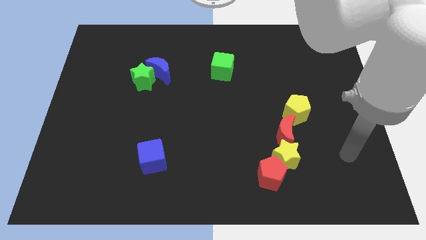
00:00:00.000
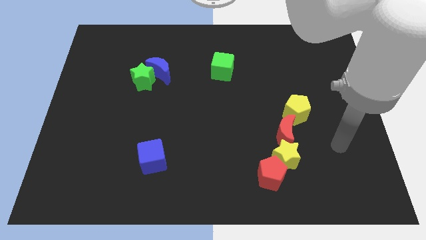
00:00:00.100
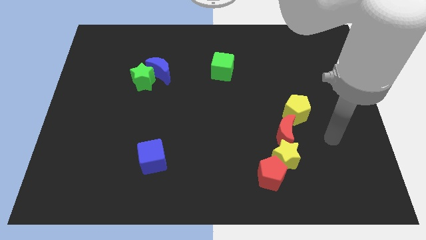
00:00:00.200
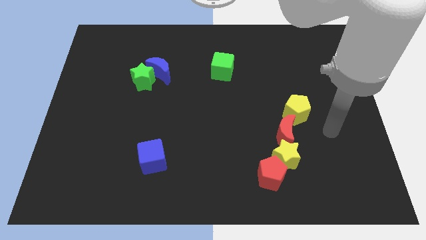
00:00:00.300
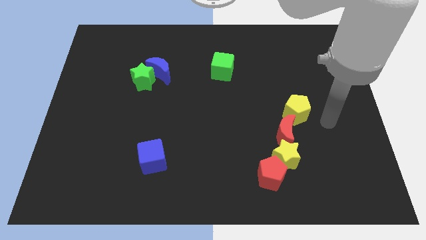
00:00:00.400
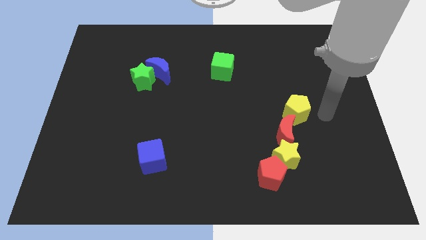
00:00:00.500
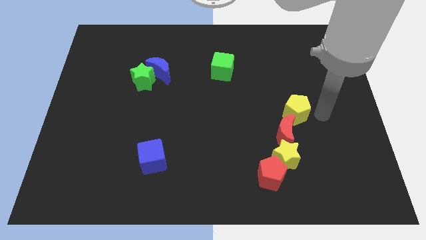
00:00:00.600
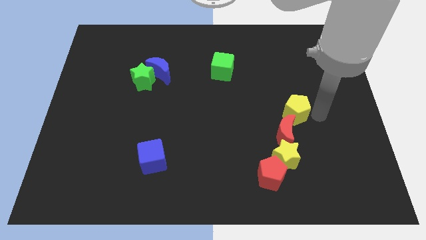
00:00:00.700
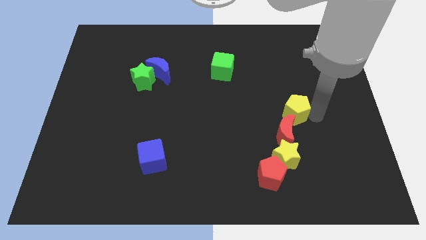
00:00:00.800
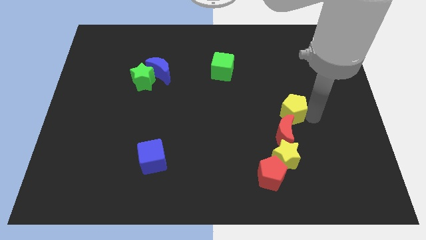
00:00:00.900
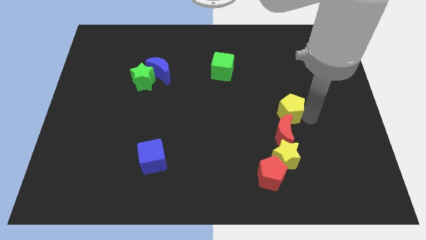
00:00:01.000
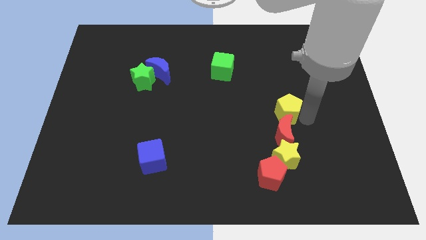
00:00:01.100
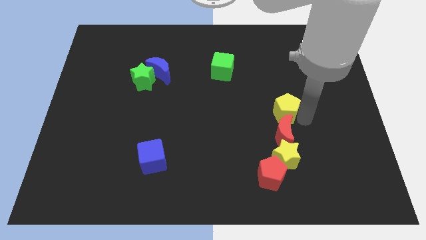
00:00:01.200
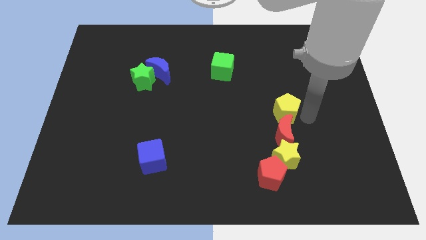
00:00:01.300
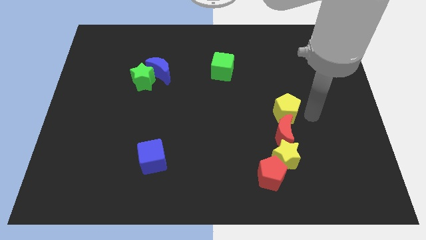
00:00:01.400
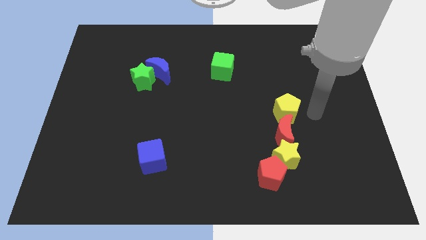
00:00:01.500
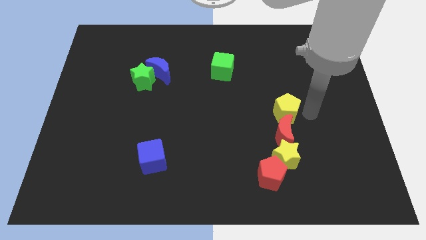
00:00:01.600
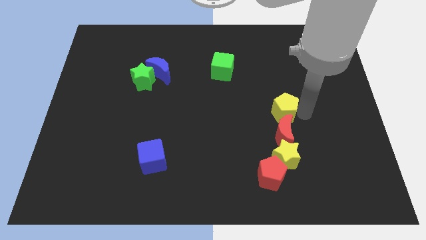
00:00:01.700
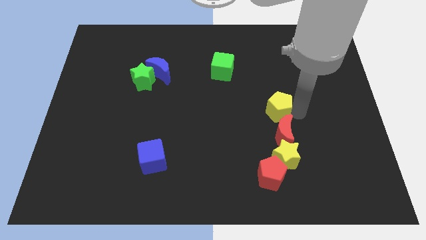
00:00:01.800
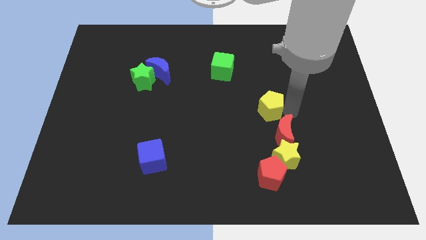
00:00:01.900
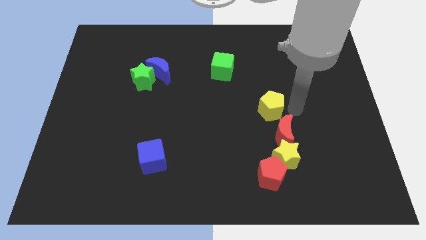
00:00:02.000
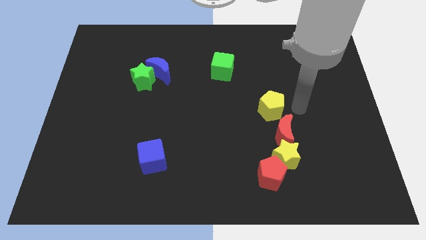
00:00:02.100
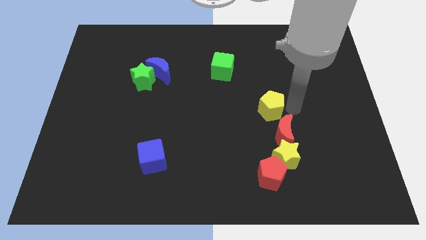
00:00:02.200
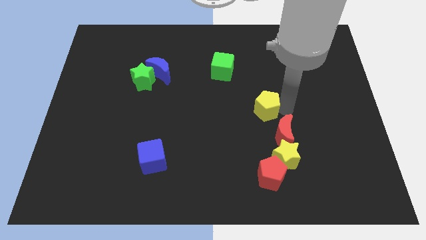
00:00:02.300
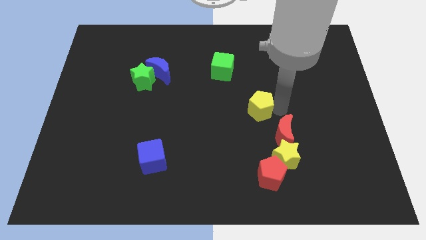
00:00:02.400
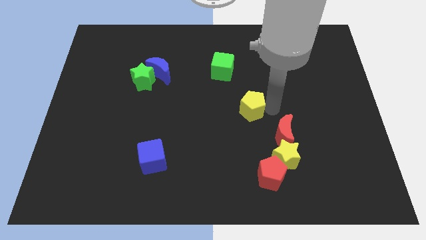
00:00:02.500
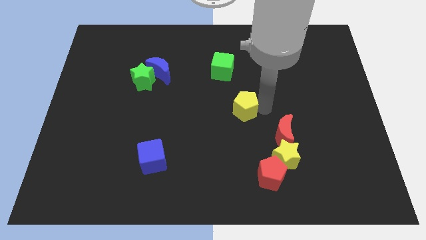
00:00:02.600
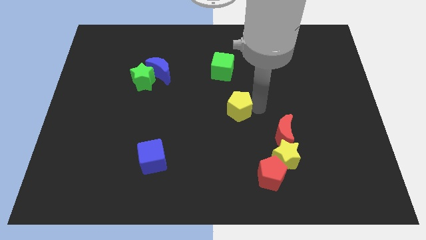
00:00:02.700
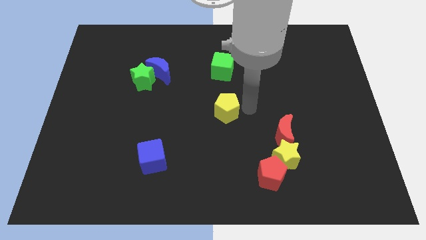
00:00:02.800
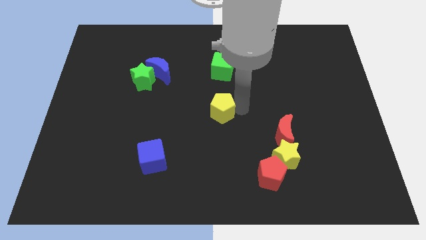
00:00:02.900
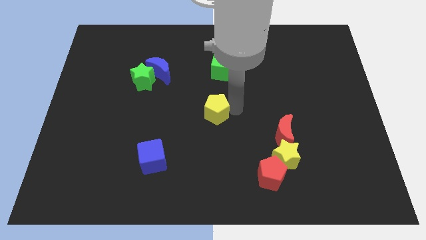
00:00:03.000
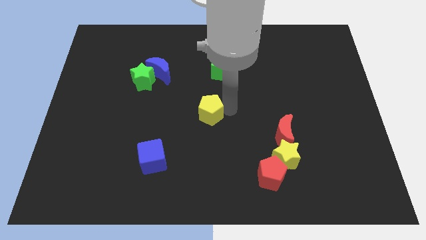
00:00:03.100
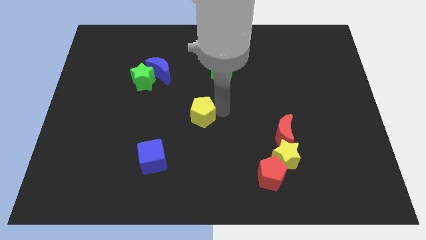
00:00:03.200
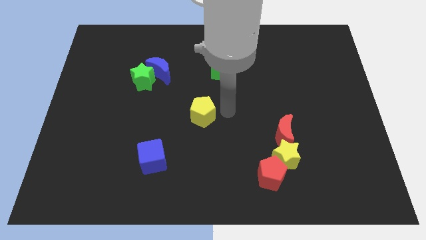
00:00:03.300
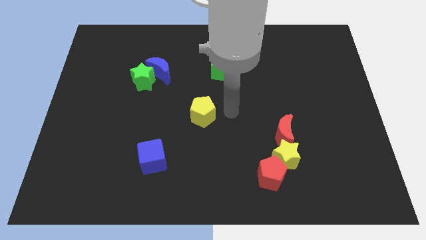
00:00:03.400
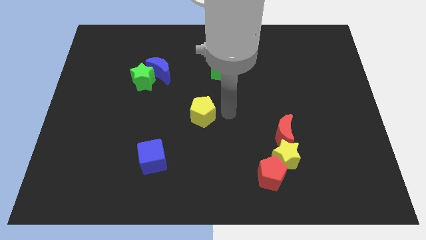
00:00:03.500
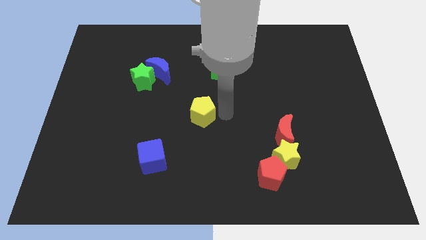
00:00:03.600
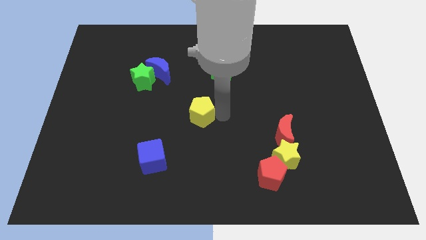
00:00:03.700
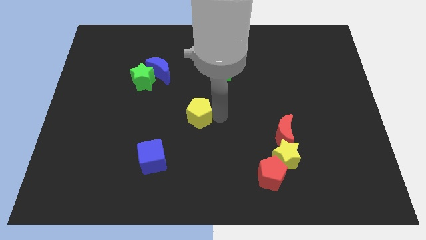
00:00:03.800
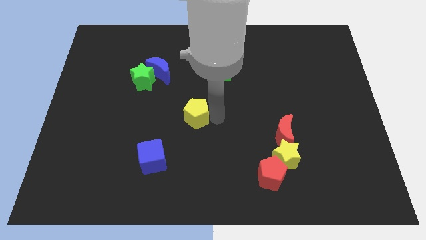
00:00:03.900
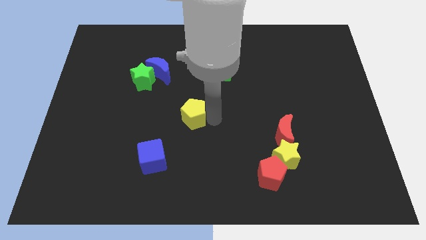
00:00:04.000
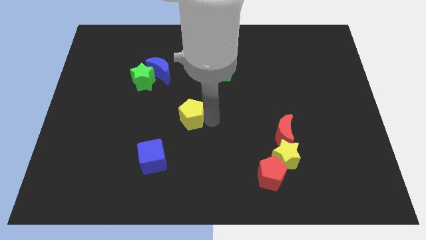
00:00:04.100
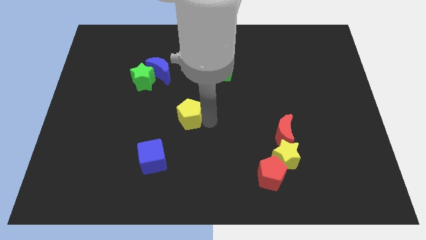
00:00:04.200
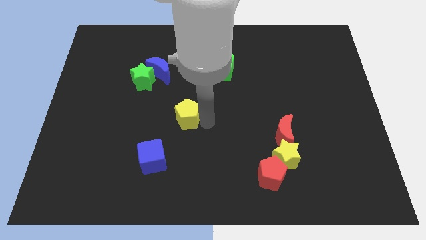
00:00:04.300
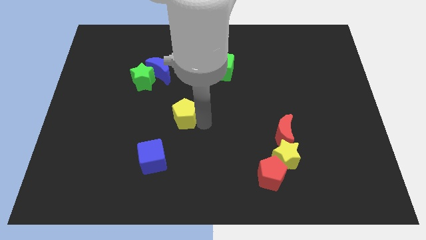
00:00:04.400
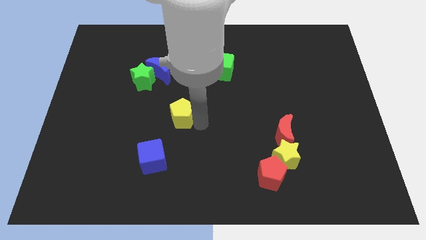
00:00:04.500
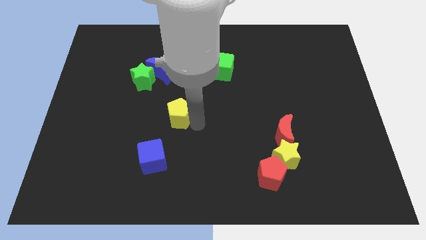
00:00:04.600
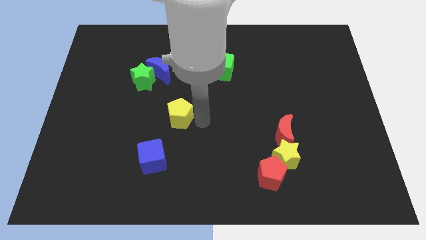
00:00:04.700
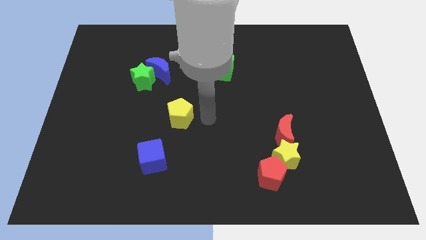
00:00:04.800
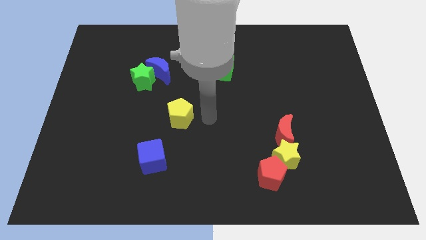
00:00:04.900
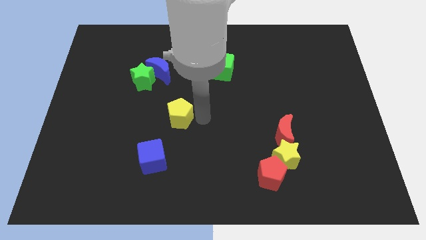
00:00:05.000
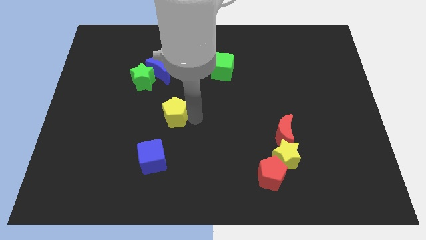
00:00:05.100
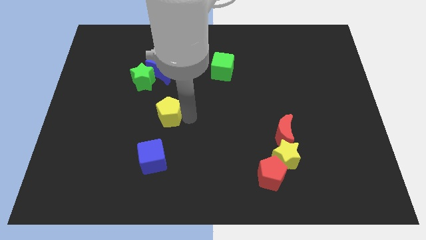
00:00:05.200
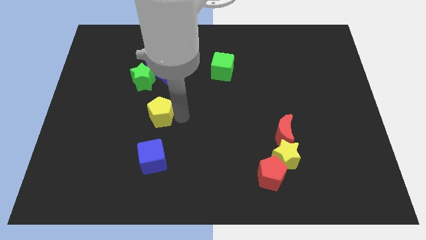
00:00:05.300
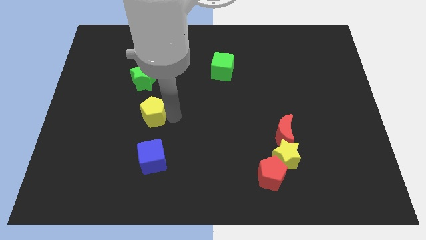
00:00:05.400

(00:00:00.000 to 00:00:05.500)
slide the yellow pentagon to the bottom of the green star

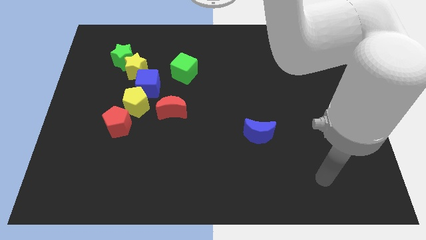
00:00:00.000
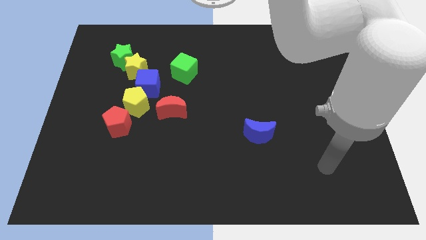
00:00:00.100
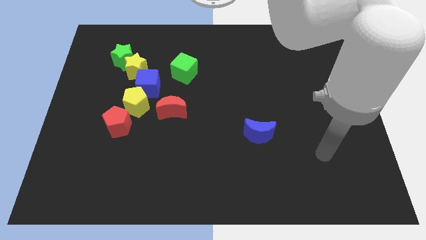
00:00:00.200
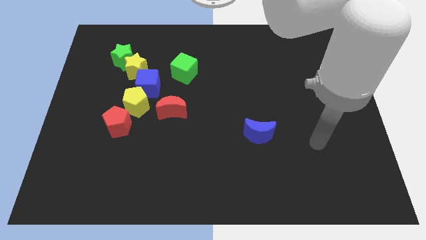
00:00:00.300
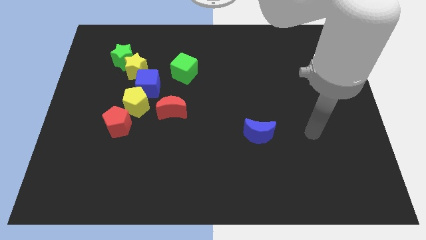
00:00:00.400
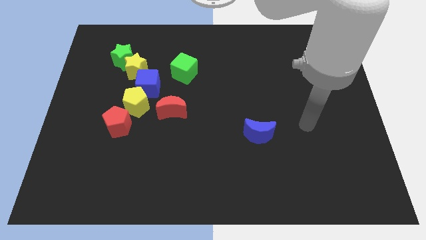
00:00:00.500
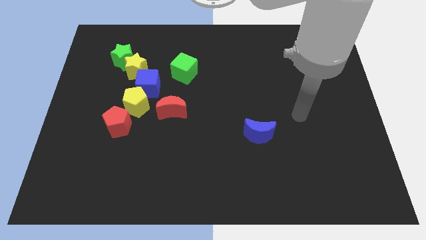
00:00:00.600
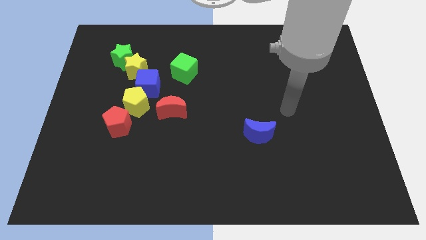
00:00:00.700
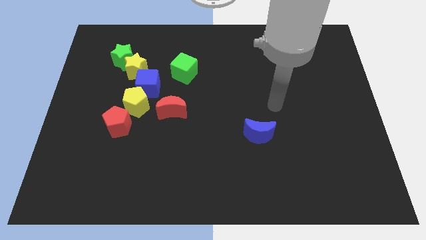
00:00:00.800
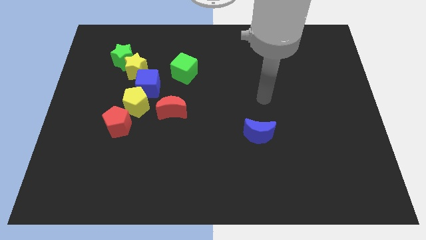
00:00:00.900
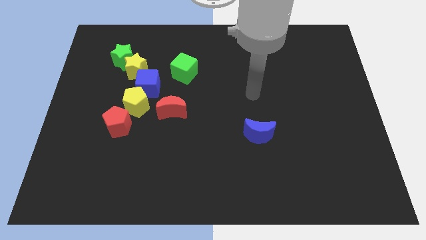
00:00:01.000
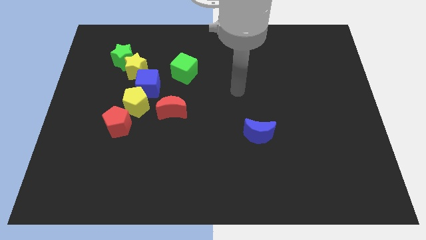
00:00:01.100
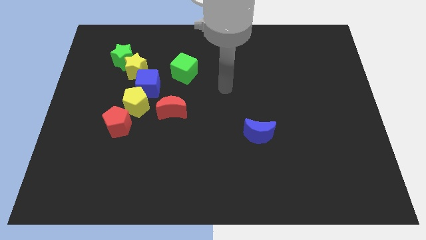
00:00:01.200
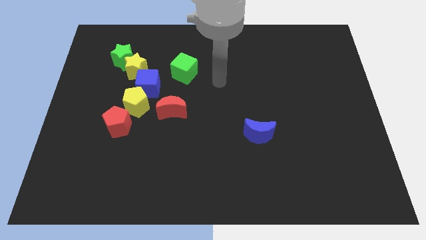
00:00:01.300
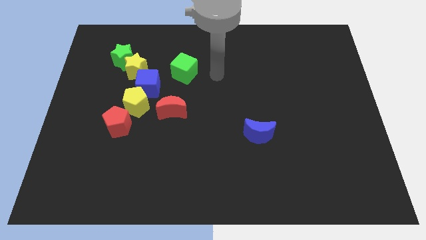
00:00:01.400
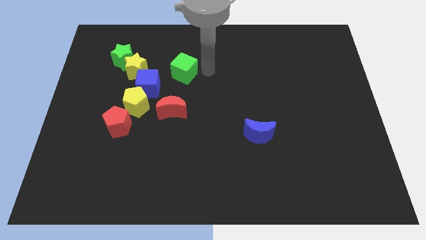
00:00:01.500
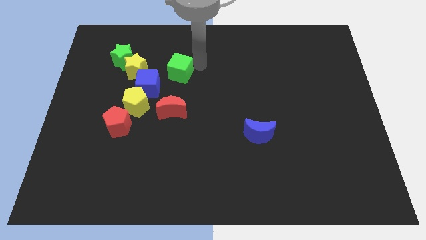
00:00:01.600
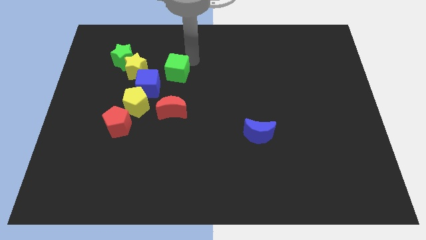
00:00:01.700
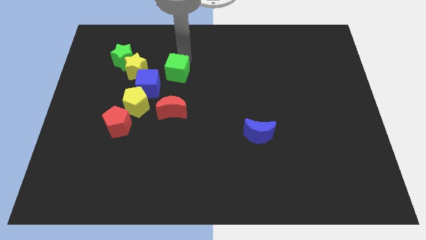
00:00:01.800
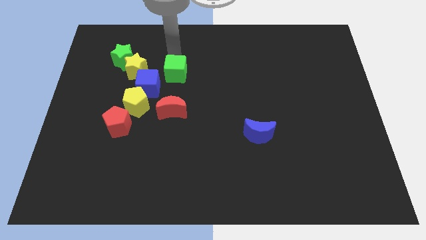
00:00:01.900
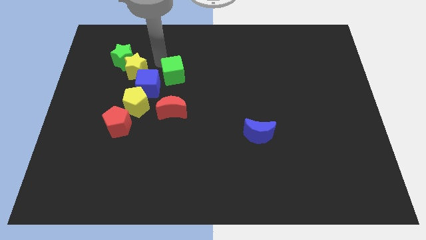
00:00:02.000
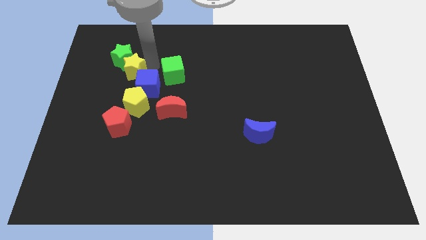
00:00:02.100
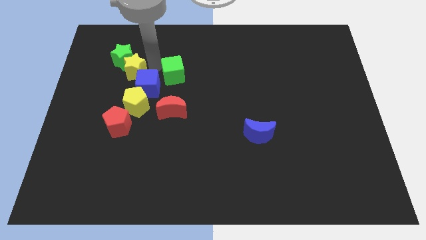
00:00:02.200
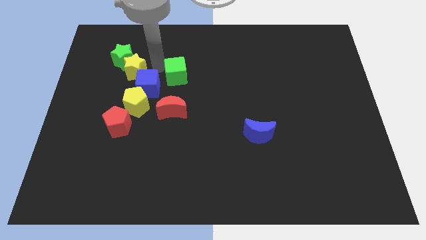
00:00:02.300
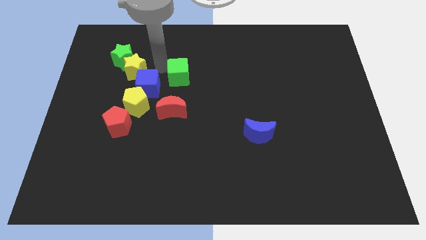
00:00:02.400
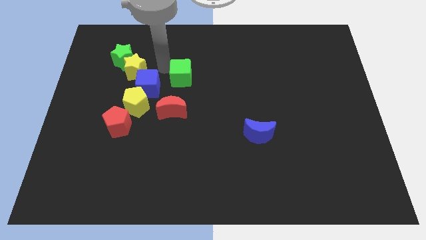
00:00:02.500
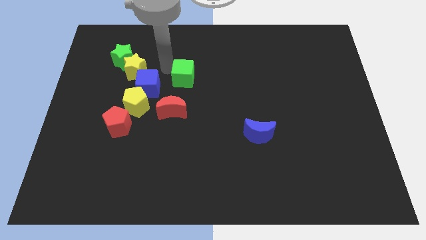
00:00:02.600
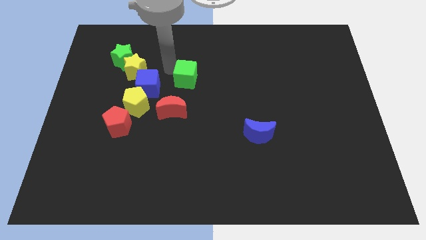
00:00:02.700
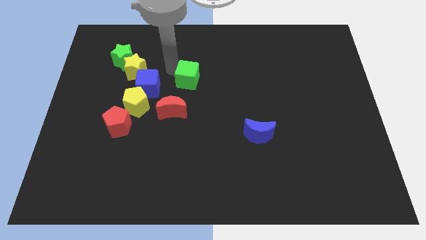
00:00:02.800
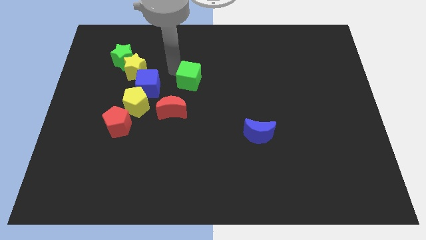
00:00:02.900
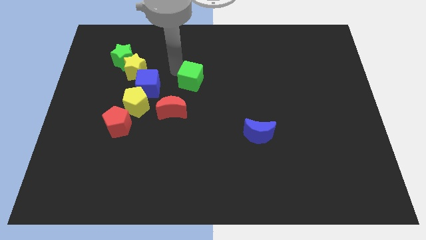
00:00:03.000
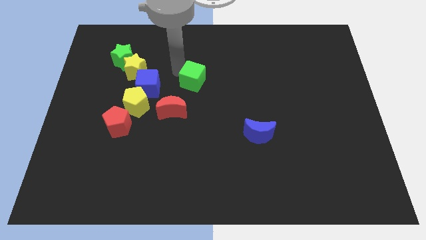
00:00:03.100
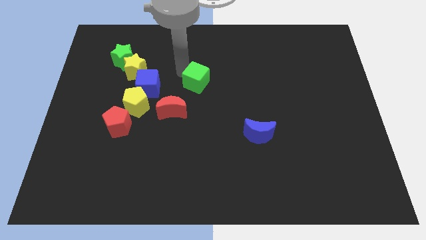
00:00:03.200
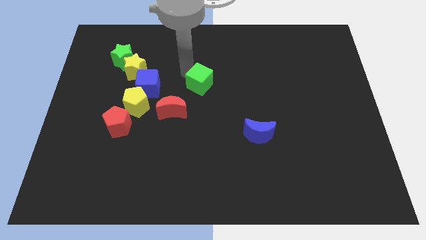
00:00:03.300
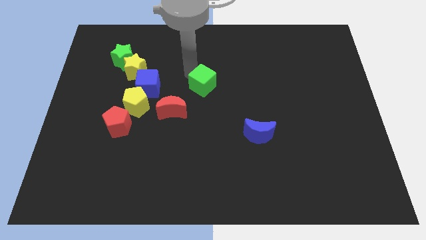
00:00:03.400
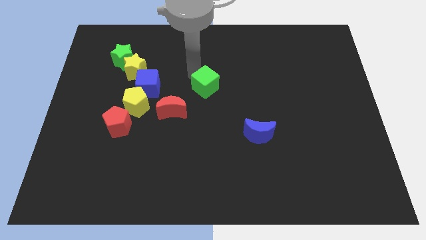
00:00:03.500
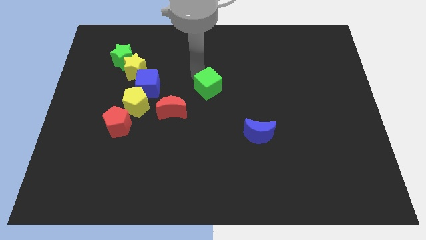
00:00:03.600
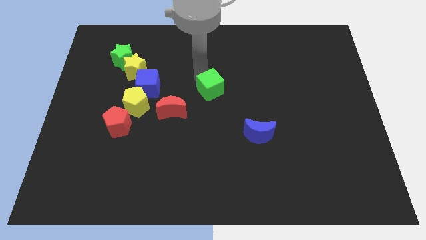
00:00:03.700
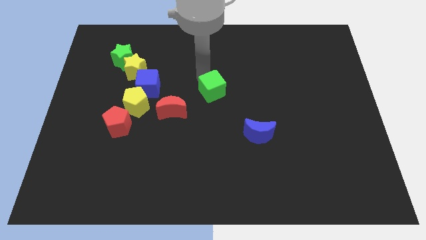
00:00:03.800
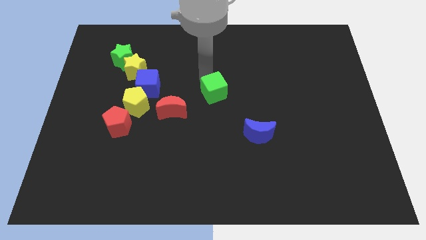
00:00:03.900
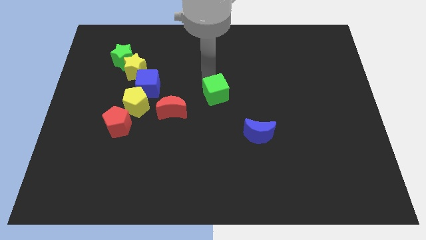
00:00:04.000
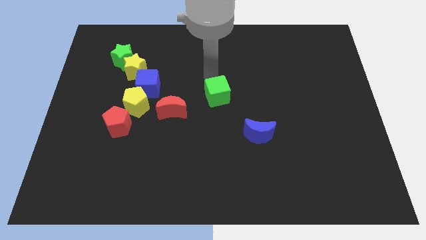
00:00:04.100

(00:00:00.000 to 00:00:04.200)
move the green cube right of the red moon
